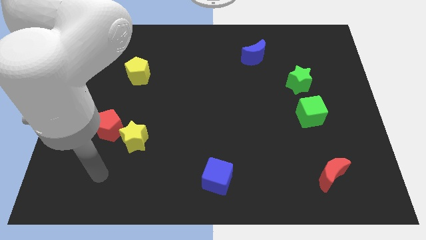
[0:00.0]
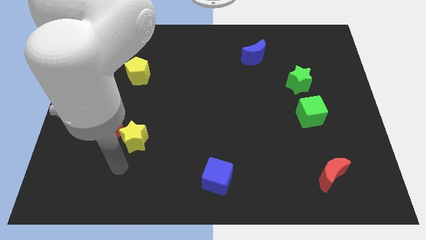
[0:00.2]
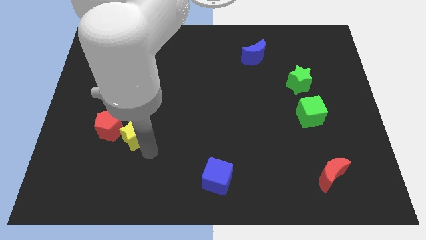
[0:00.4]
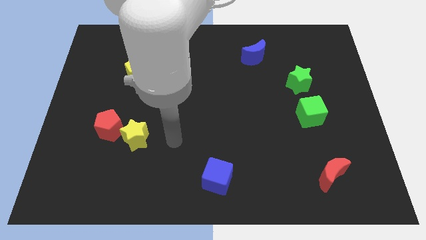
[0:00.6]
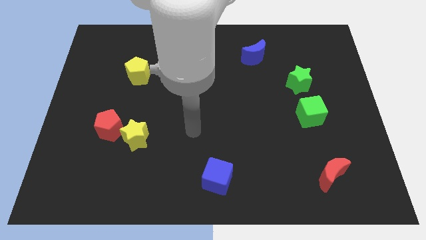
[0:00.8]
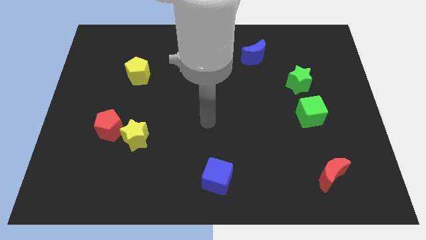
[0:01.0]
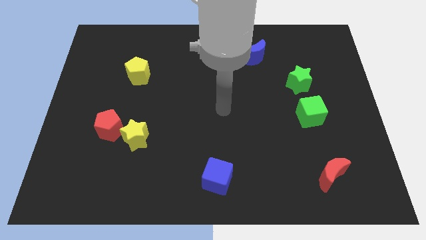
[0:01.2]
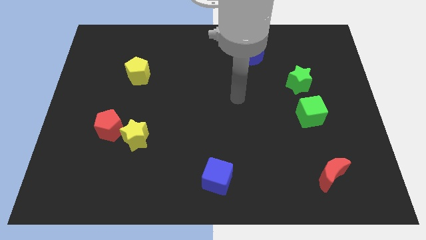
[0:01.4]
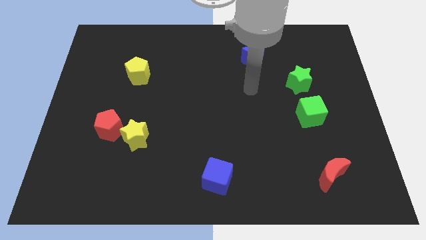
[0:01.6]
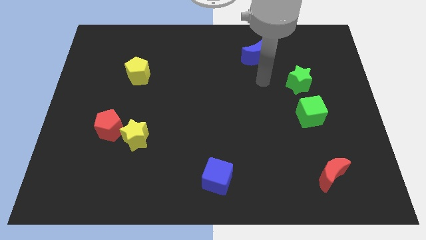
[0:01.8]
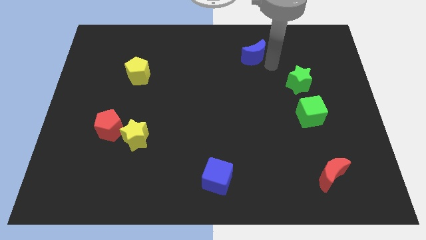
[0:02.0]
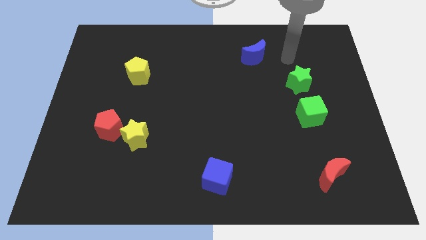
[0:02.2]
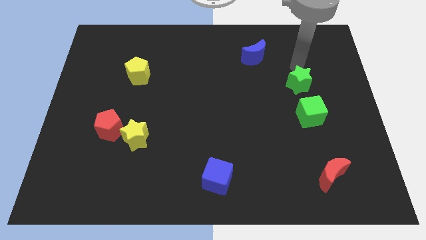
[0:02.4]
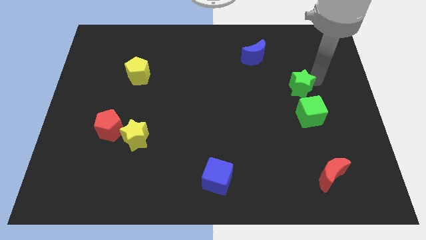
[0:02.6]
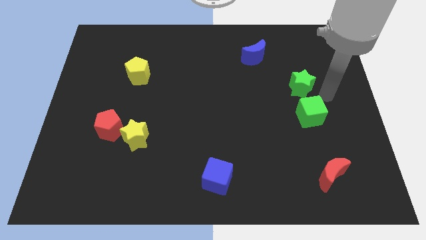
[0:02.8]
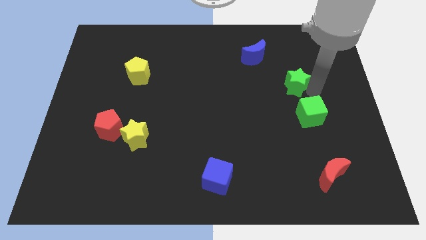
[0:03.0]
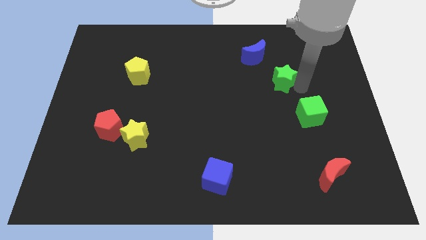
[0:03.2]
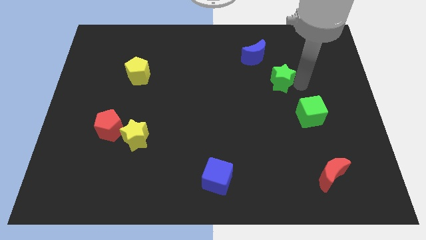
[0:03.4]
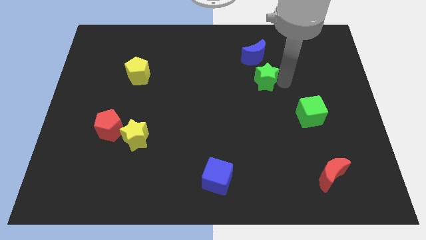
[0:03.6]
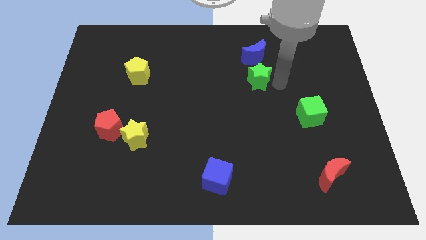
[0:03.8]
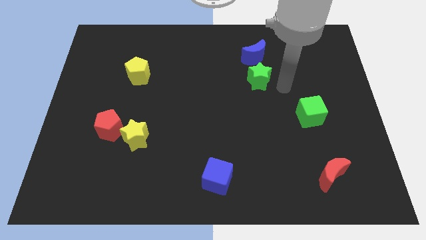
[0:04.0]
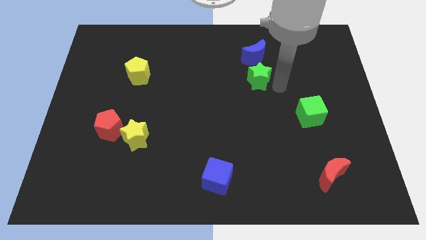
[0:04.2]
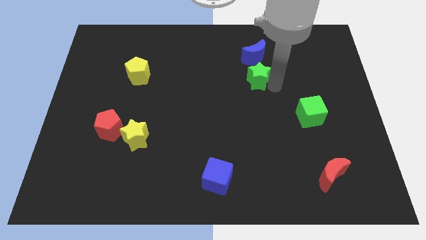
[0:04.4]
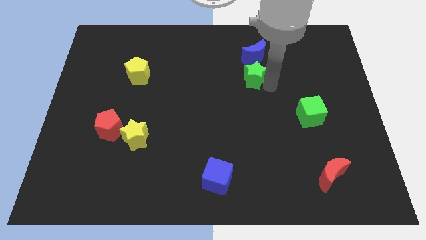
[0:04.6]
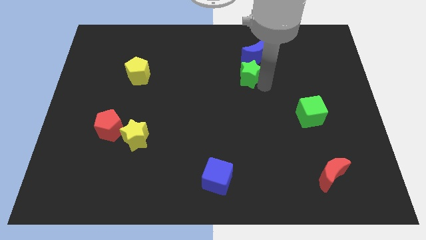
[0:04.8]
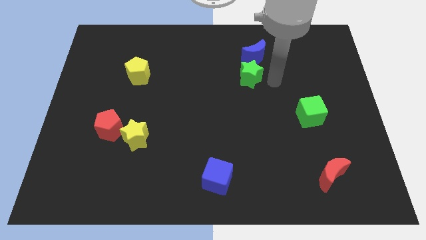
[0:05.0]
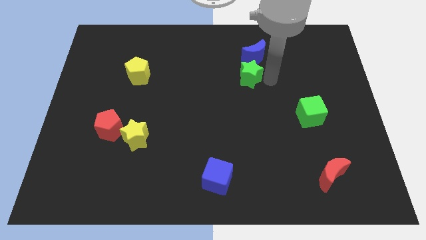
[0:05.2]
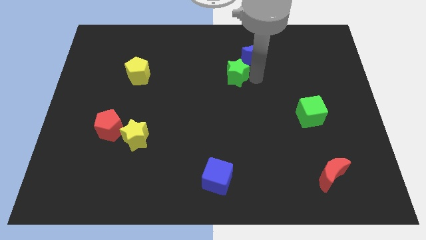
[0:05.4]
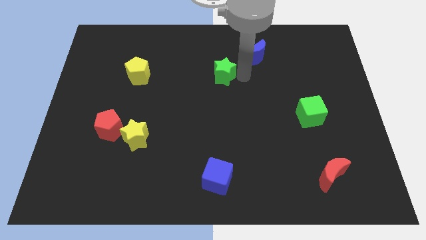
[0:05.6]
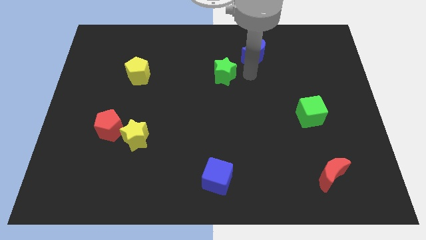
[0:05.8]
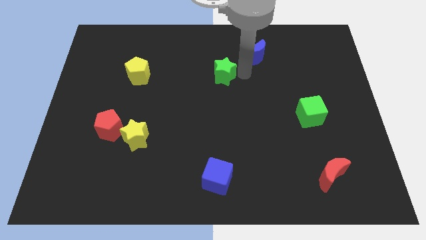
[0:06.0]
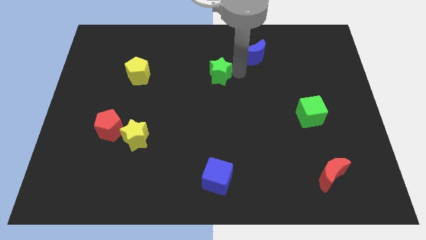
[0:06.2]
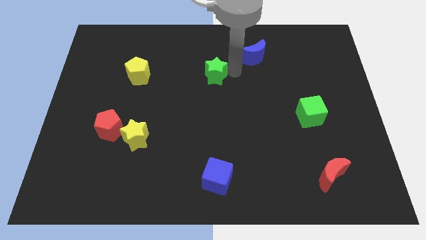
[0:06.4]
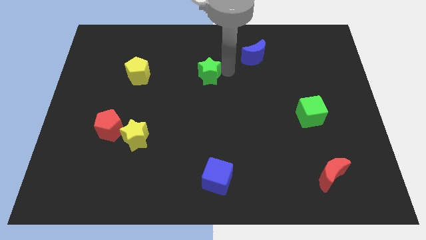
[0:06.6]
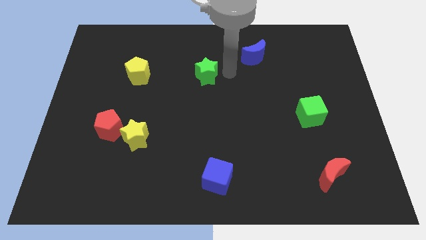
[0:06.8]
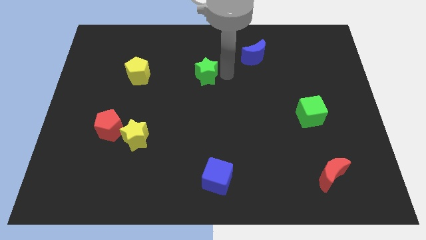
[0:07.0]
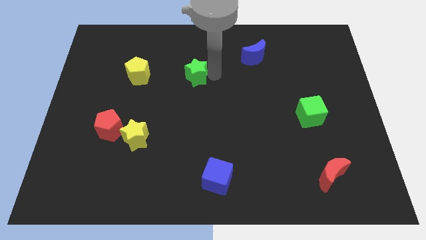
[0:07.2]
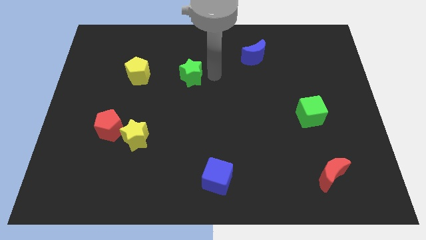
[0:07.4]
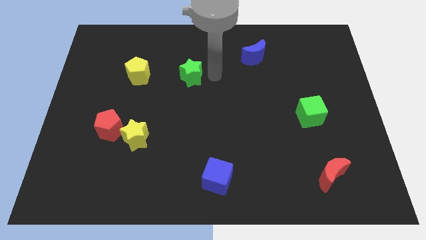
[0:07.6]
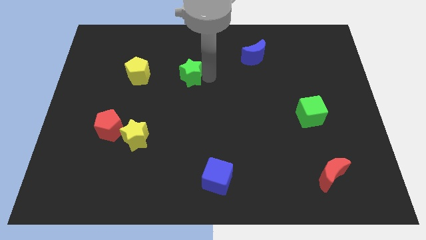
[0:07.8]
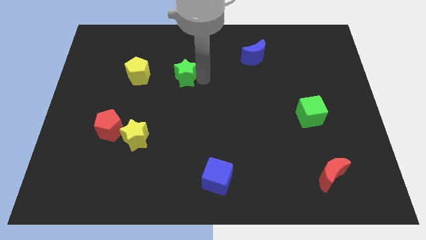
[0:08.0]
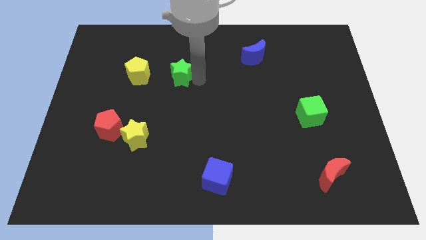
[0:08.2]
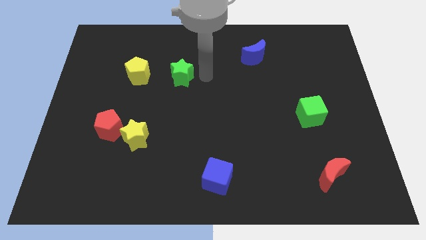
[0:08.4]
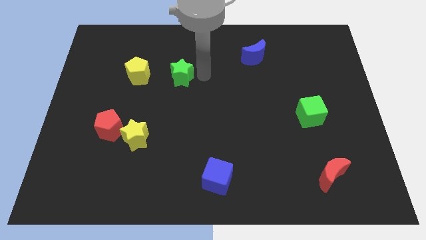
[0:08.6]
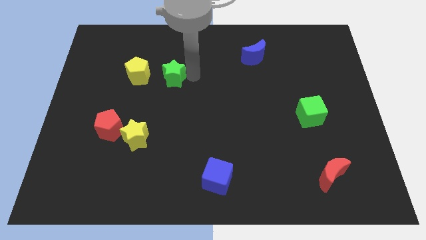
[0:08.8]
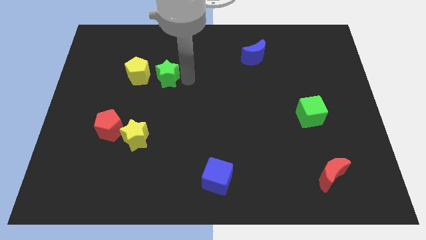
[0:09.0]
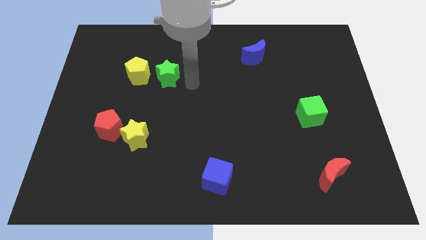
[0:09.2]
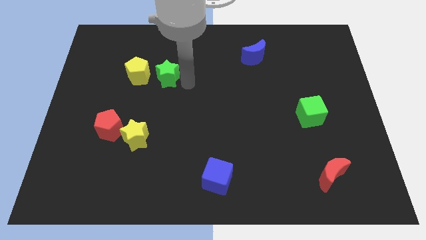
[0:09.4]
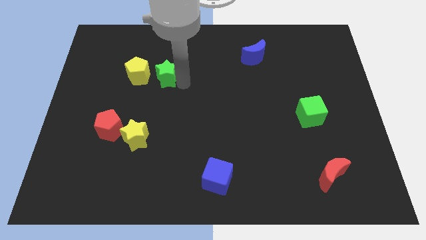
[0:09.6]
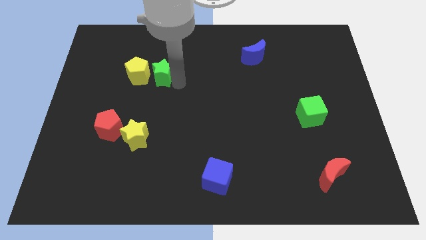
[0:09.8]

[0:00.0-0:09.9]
push the green star towards the yellow pentagon

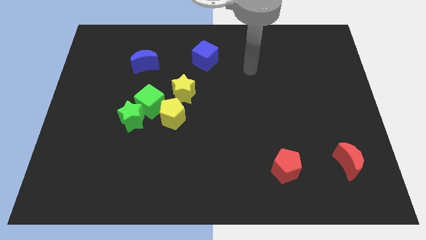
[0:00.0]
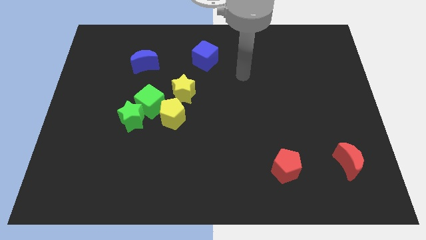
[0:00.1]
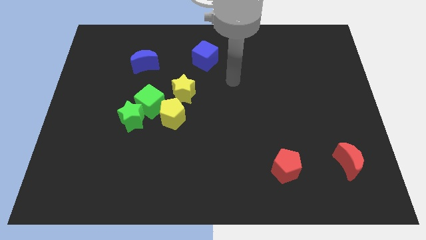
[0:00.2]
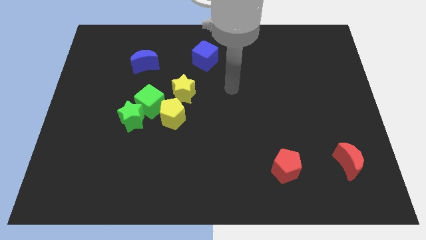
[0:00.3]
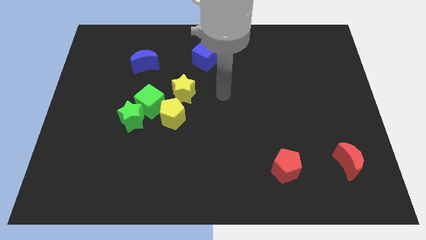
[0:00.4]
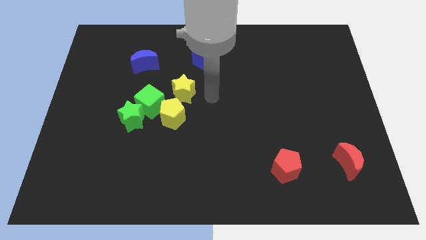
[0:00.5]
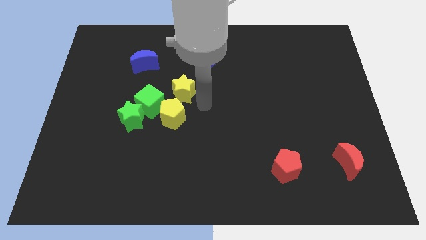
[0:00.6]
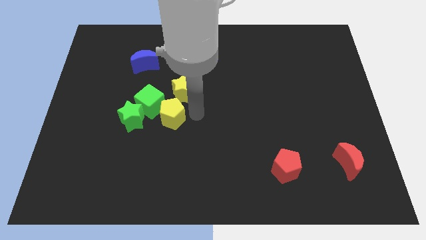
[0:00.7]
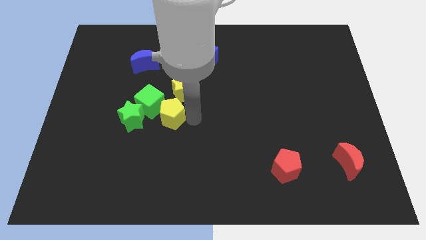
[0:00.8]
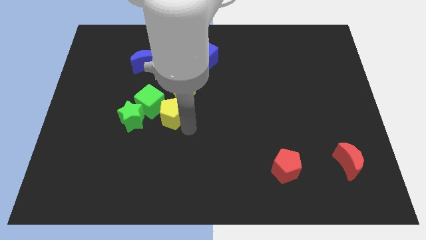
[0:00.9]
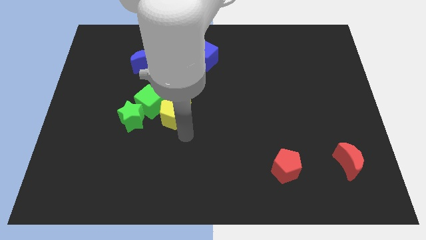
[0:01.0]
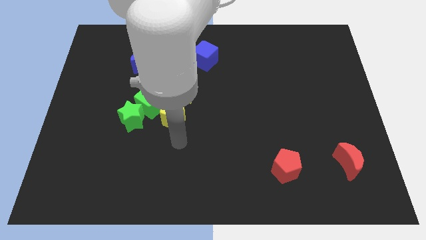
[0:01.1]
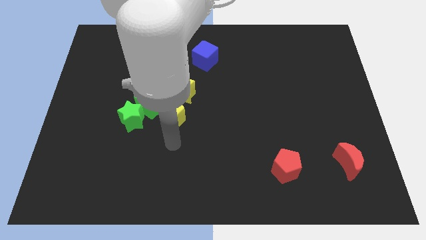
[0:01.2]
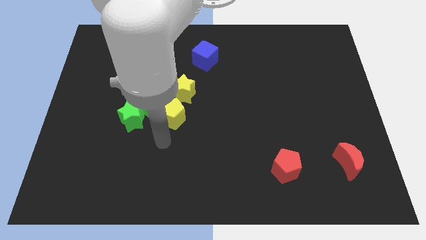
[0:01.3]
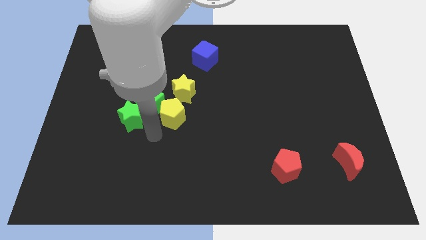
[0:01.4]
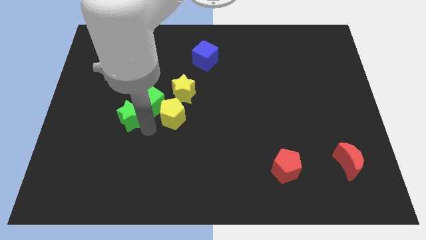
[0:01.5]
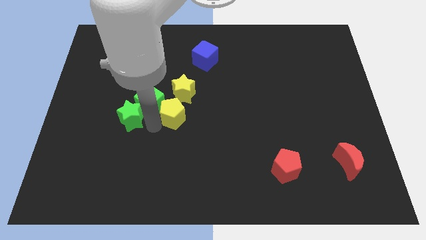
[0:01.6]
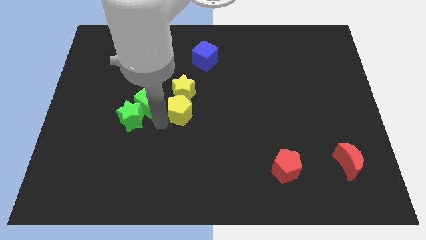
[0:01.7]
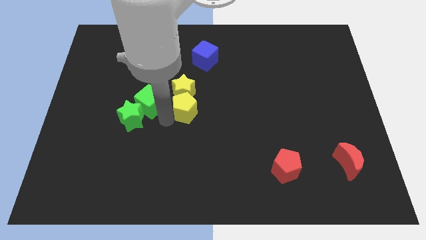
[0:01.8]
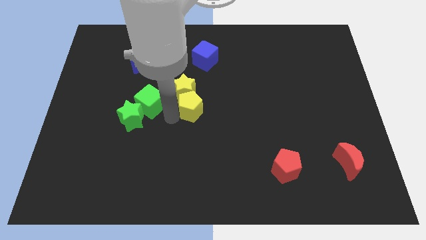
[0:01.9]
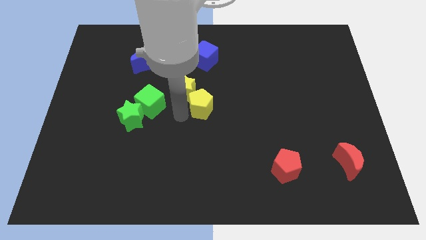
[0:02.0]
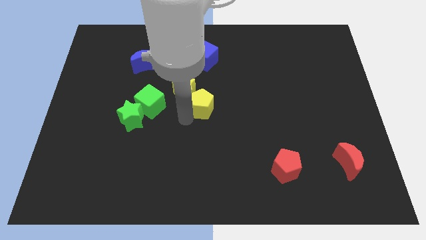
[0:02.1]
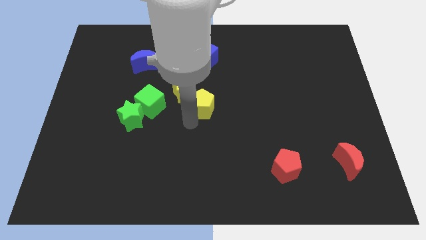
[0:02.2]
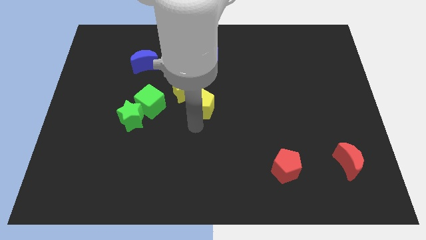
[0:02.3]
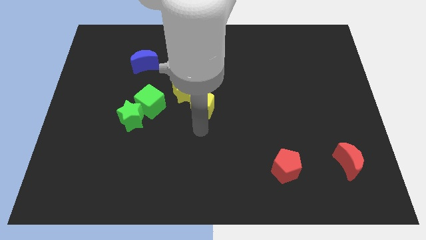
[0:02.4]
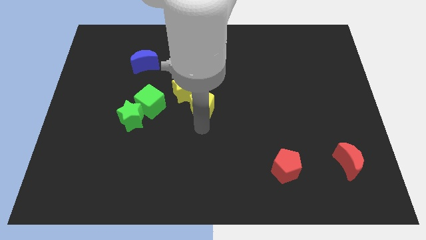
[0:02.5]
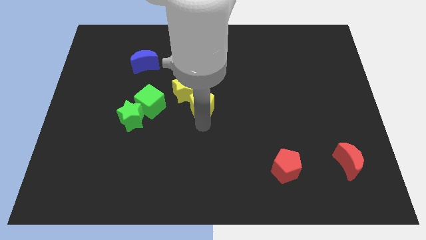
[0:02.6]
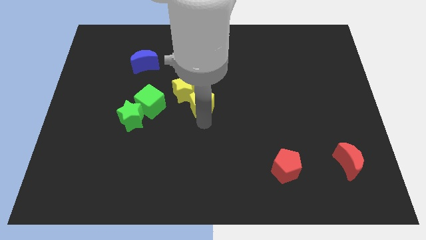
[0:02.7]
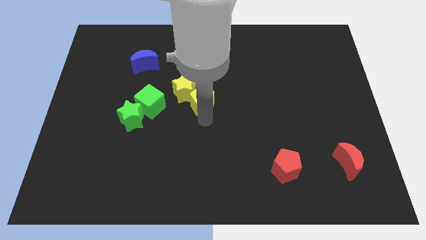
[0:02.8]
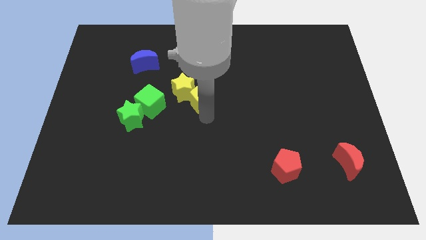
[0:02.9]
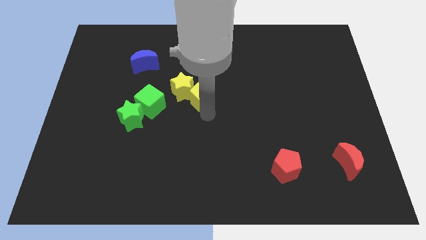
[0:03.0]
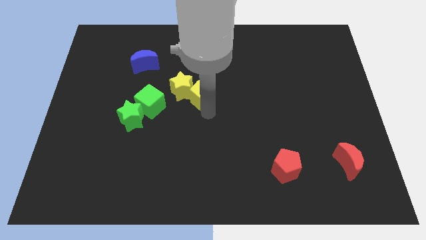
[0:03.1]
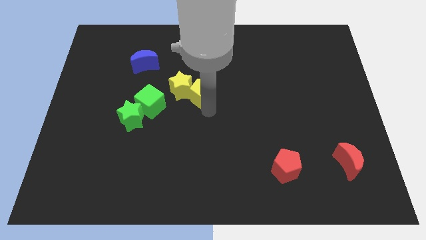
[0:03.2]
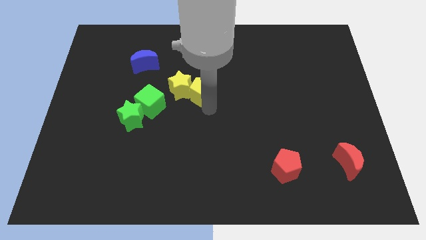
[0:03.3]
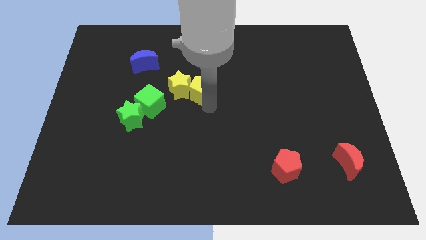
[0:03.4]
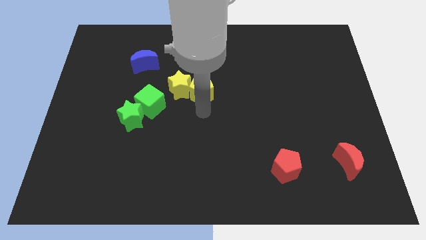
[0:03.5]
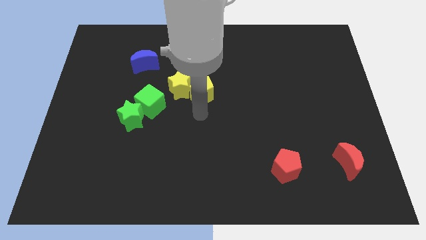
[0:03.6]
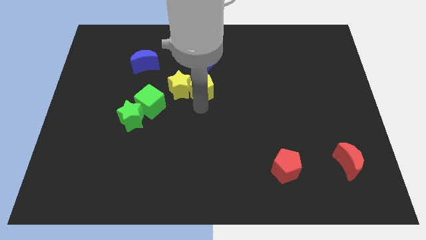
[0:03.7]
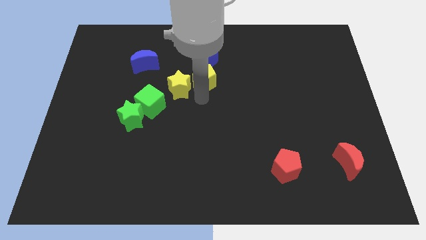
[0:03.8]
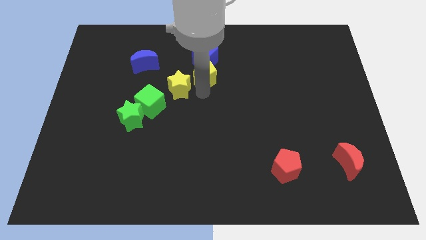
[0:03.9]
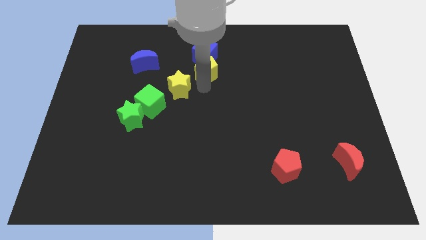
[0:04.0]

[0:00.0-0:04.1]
push the yellow pentagon next to the blue cube
